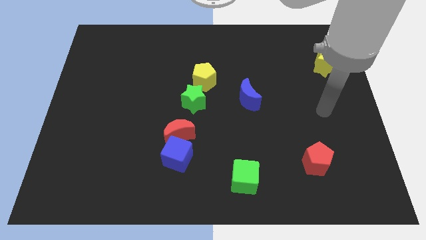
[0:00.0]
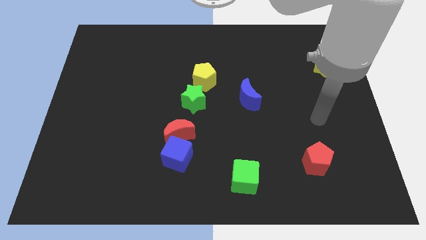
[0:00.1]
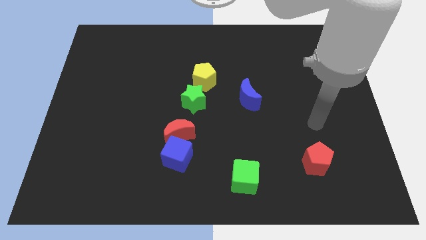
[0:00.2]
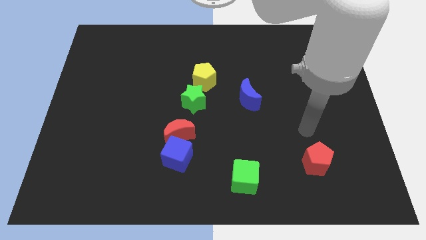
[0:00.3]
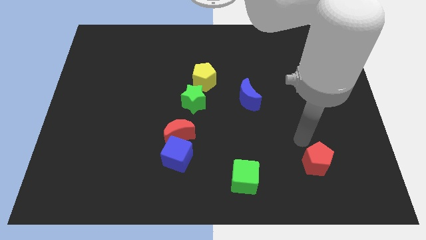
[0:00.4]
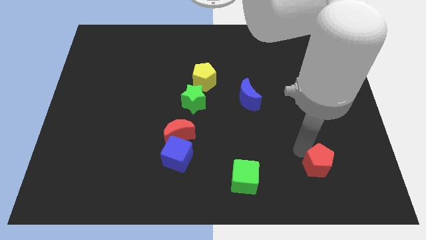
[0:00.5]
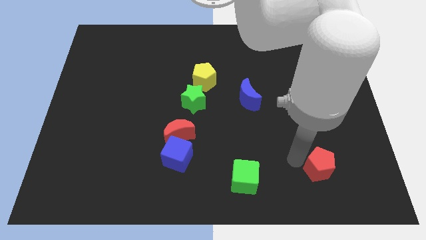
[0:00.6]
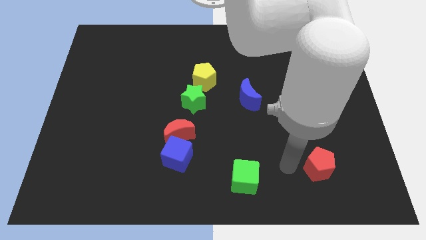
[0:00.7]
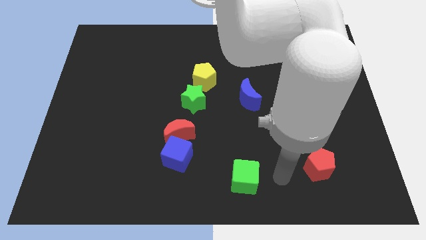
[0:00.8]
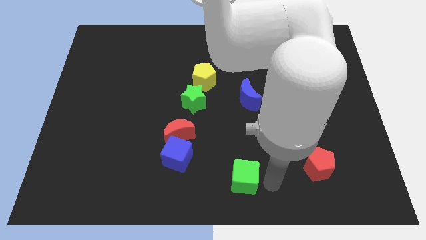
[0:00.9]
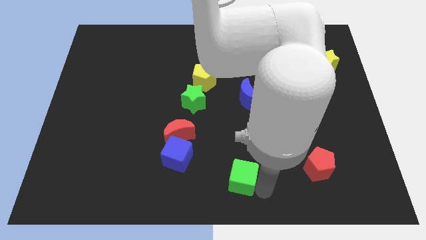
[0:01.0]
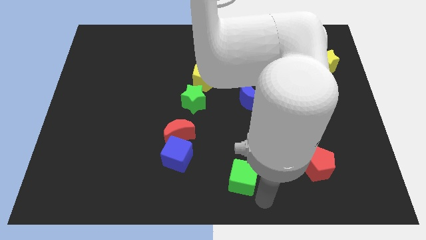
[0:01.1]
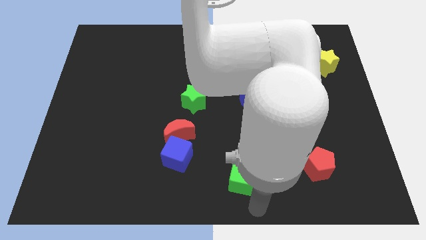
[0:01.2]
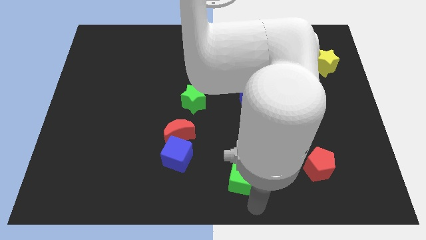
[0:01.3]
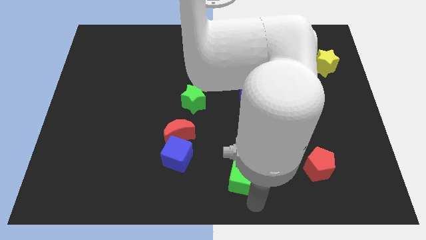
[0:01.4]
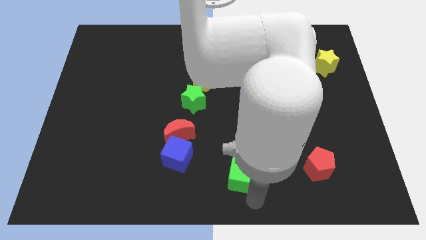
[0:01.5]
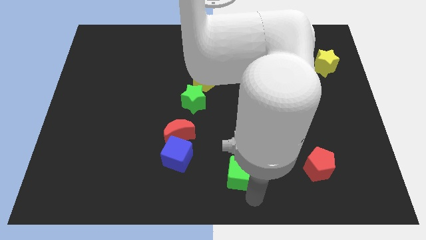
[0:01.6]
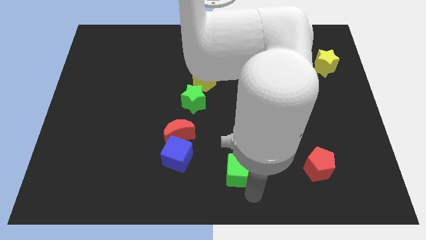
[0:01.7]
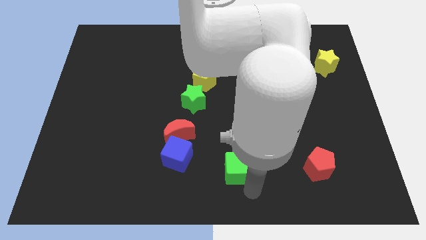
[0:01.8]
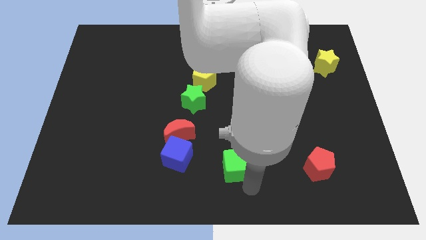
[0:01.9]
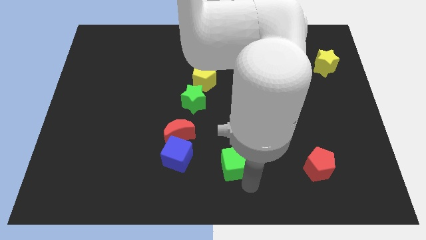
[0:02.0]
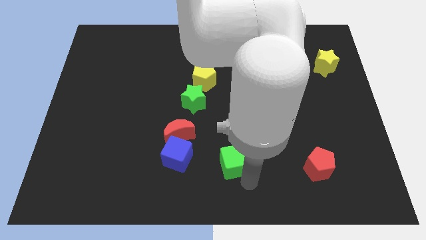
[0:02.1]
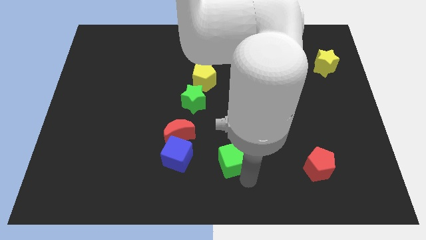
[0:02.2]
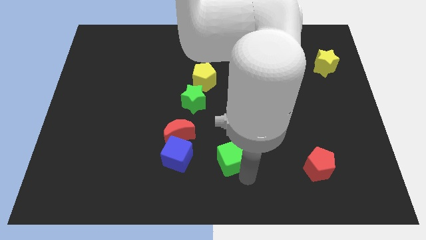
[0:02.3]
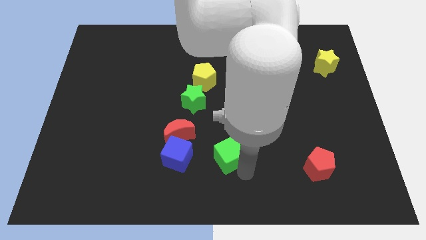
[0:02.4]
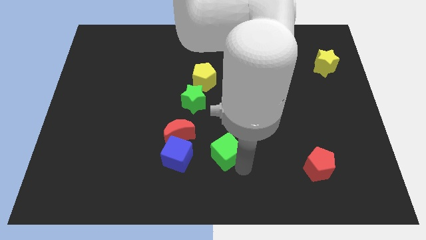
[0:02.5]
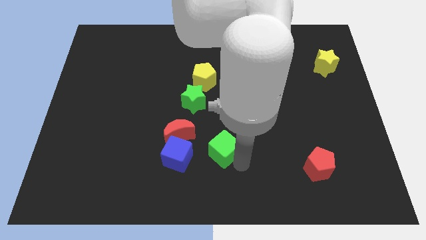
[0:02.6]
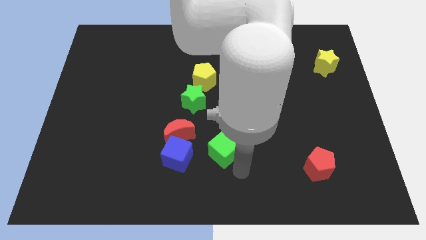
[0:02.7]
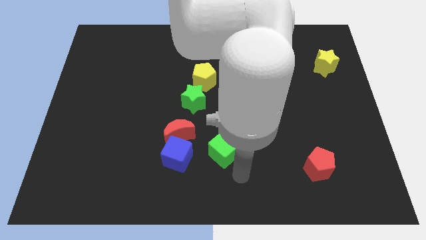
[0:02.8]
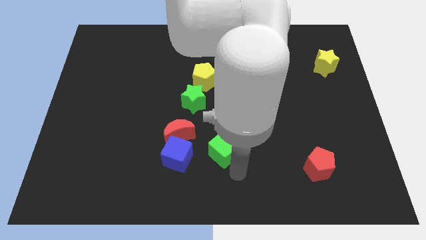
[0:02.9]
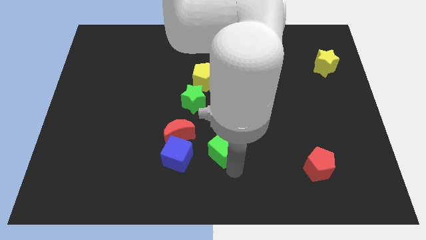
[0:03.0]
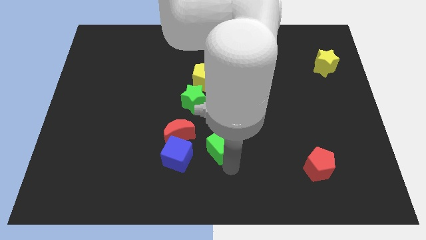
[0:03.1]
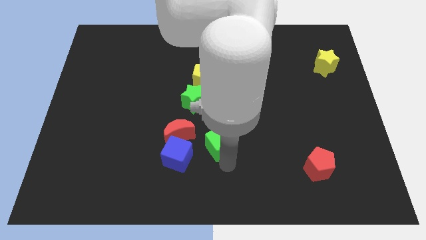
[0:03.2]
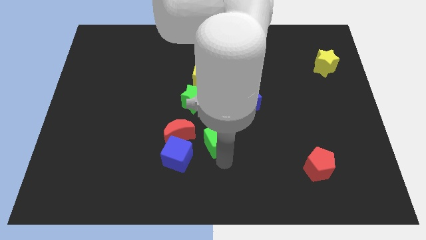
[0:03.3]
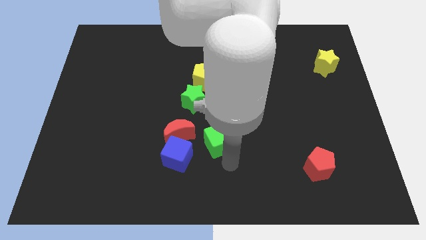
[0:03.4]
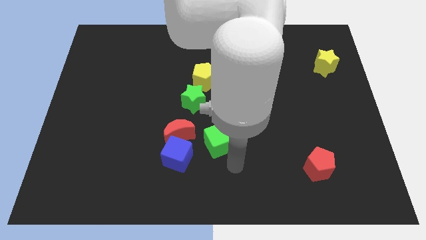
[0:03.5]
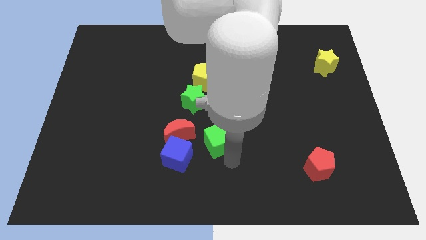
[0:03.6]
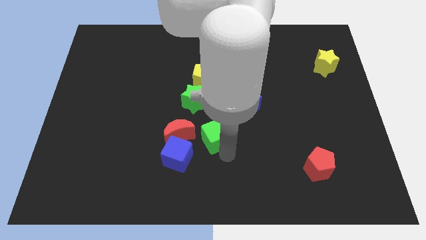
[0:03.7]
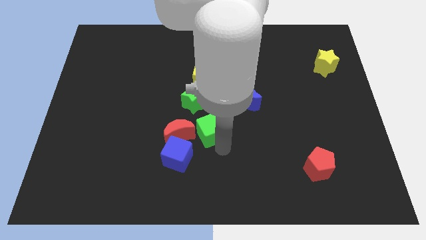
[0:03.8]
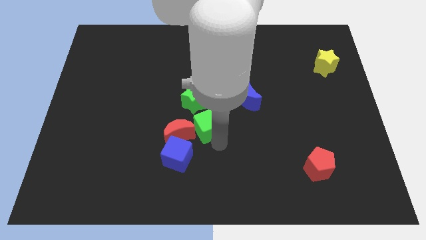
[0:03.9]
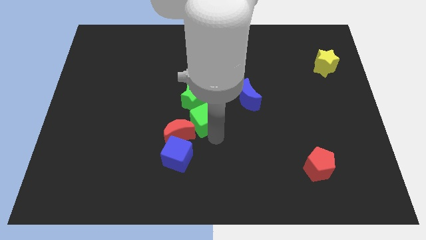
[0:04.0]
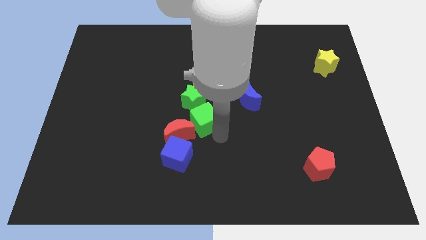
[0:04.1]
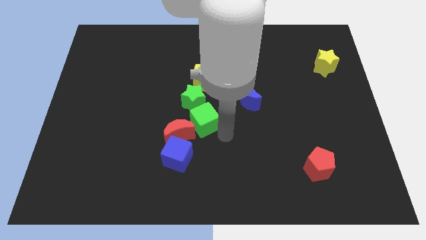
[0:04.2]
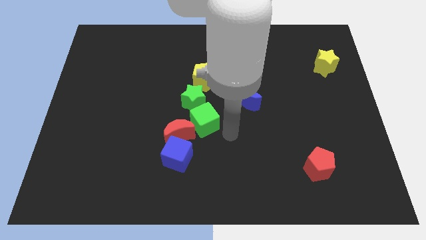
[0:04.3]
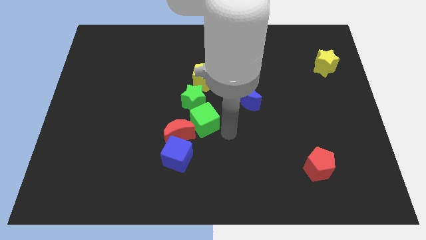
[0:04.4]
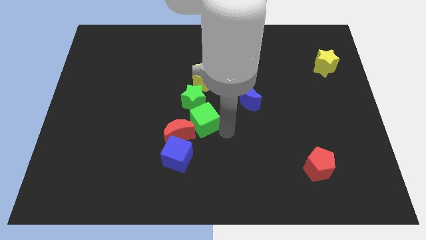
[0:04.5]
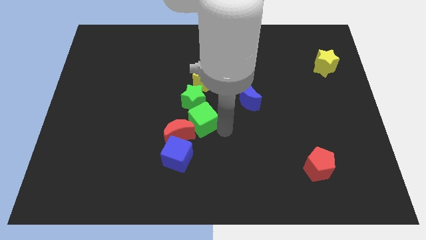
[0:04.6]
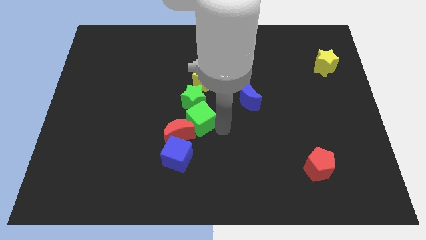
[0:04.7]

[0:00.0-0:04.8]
put the green cube to the top of the blue cube

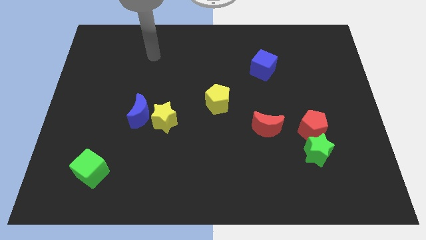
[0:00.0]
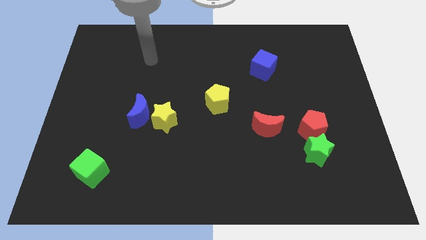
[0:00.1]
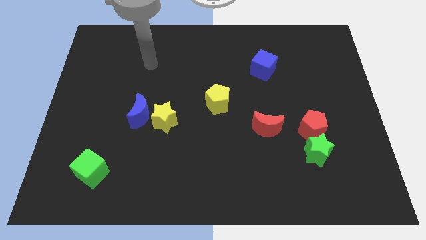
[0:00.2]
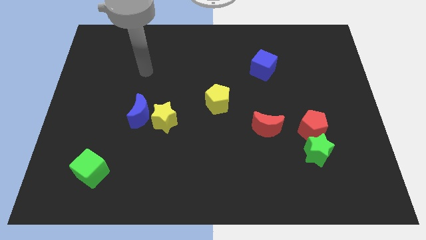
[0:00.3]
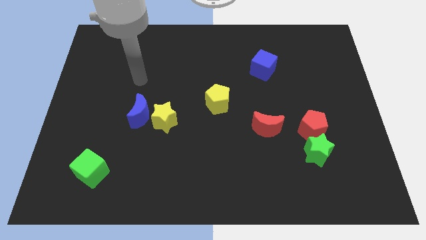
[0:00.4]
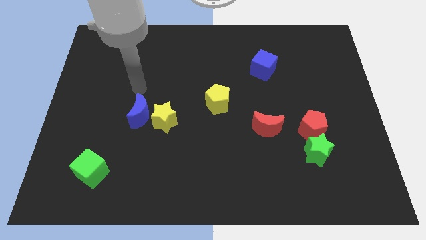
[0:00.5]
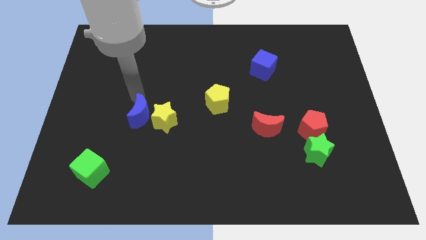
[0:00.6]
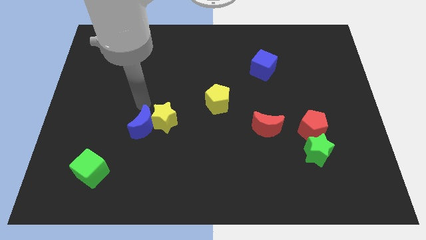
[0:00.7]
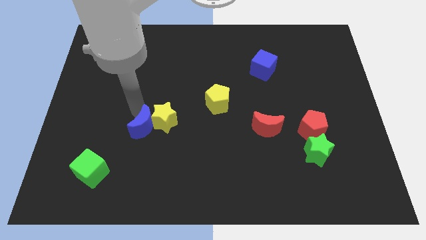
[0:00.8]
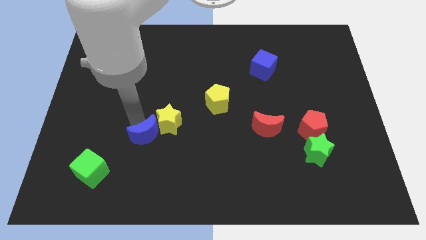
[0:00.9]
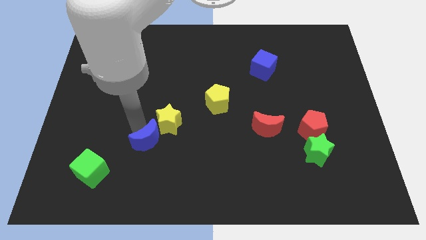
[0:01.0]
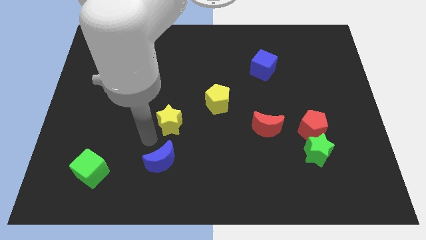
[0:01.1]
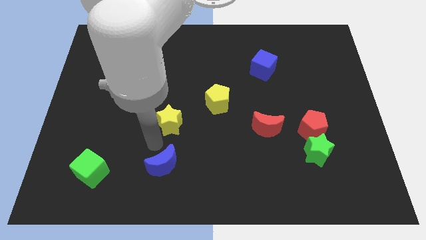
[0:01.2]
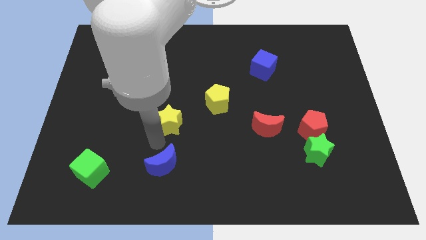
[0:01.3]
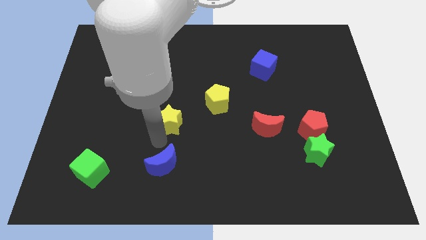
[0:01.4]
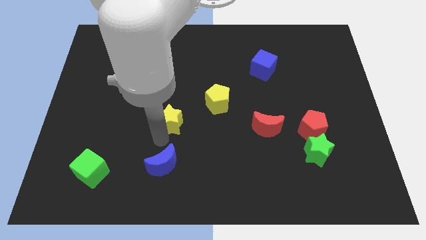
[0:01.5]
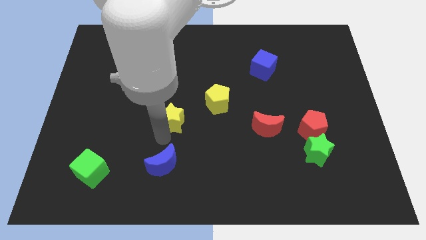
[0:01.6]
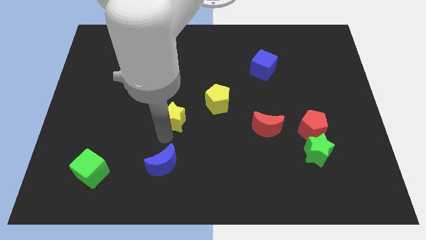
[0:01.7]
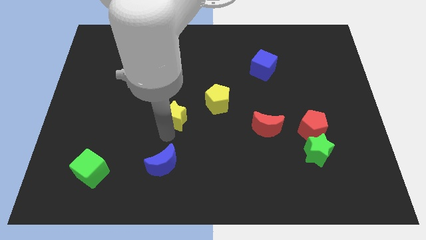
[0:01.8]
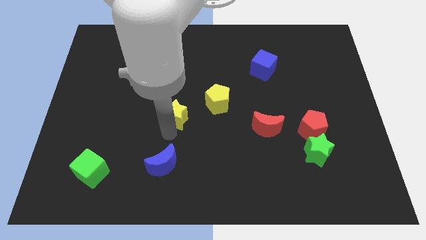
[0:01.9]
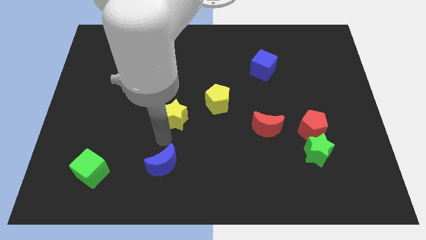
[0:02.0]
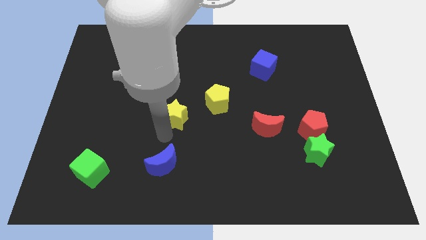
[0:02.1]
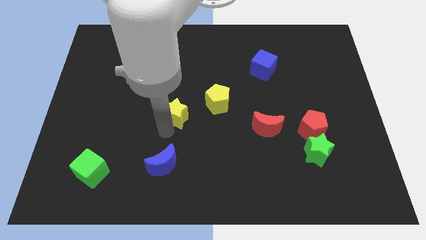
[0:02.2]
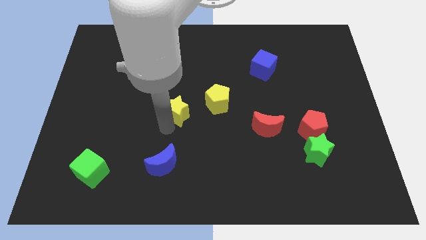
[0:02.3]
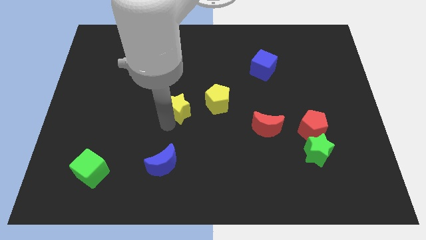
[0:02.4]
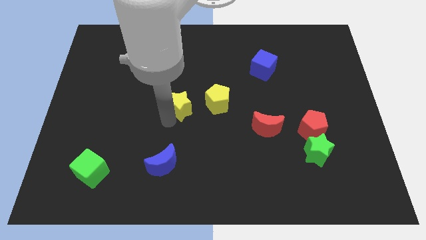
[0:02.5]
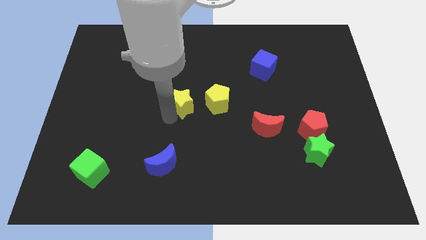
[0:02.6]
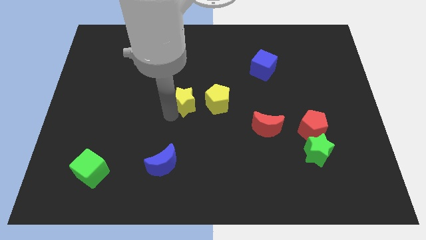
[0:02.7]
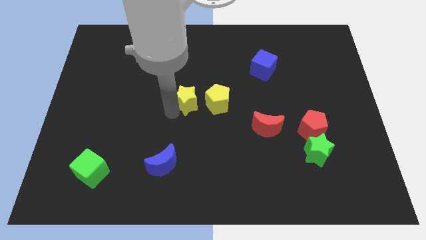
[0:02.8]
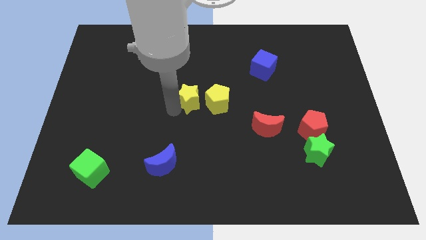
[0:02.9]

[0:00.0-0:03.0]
push the yellow star diagonally up and to the left of the yellow pentagon
